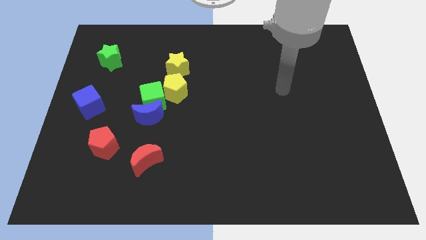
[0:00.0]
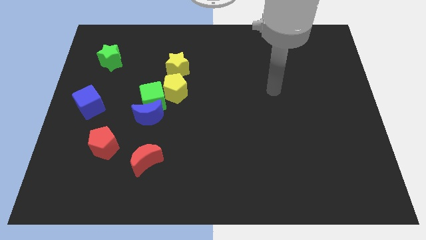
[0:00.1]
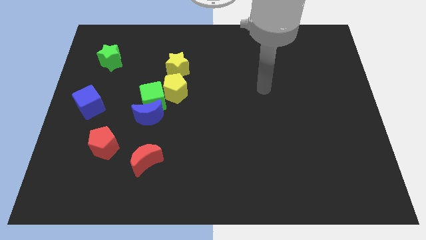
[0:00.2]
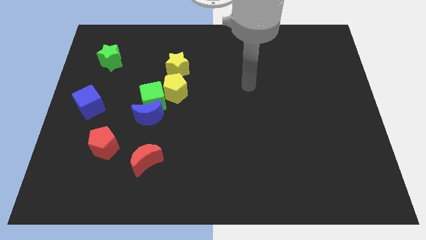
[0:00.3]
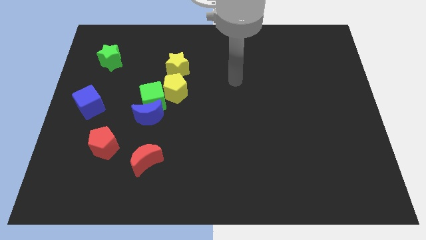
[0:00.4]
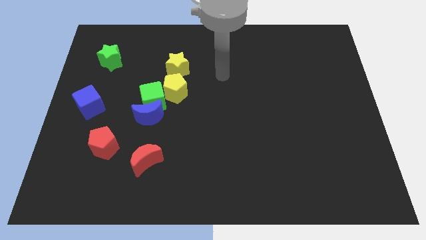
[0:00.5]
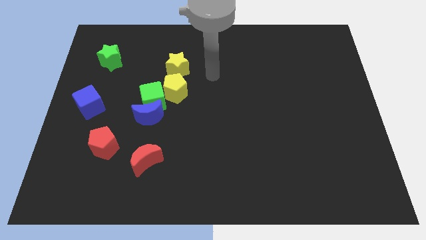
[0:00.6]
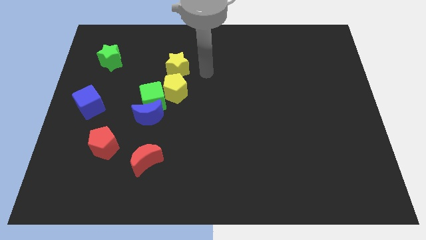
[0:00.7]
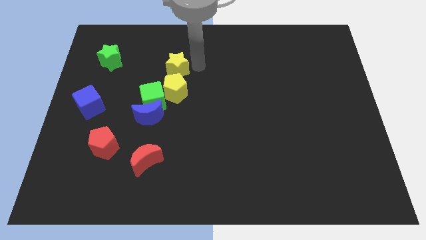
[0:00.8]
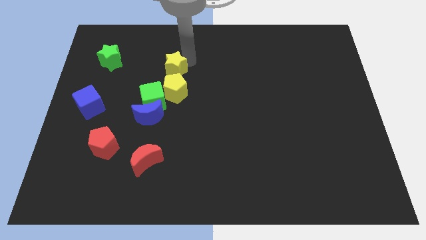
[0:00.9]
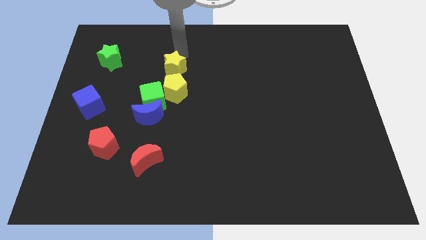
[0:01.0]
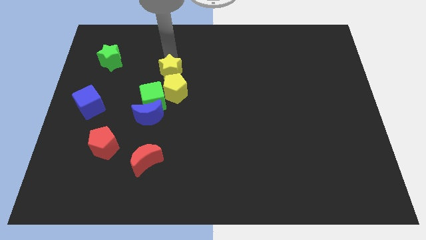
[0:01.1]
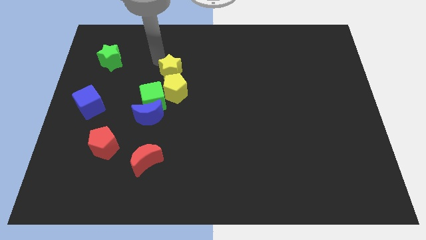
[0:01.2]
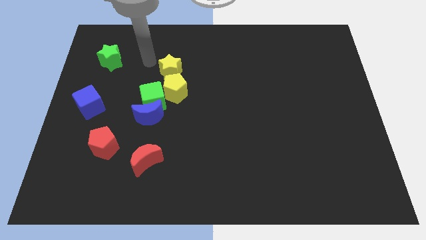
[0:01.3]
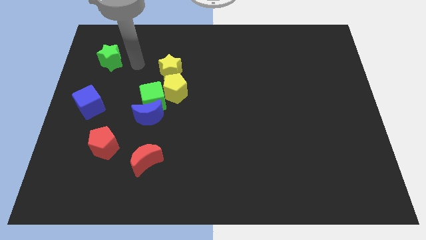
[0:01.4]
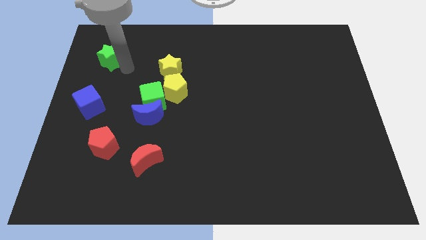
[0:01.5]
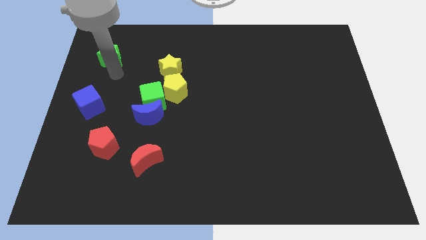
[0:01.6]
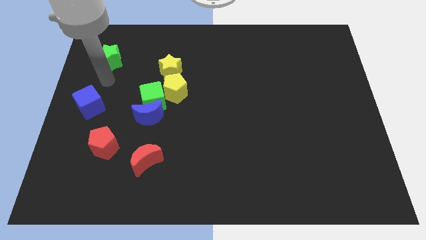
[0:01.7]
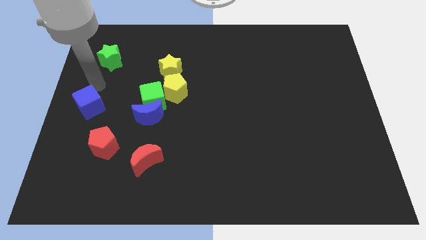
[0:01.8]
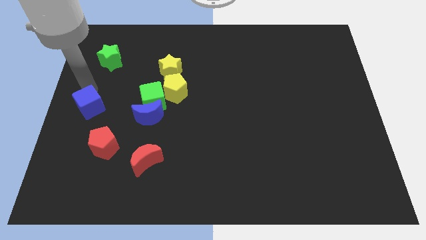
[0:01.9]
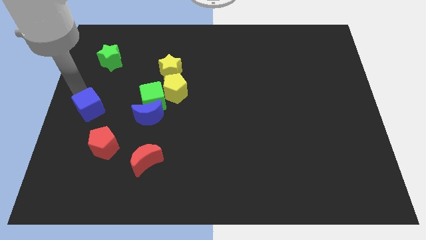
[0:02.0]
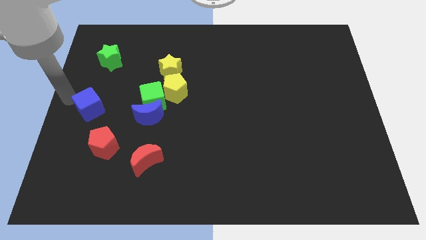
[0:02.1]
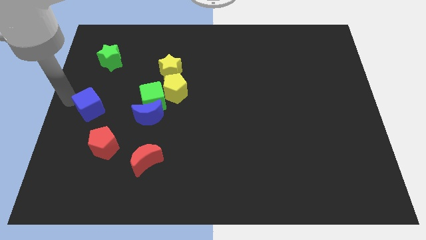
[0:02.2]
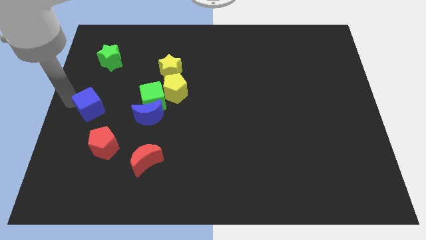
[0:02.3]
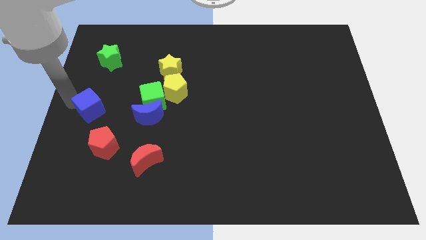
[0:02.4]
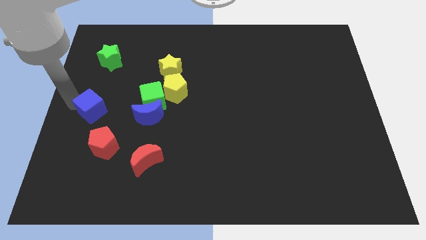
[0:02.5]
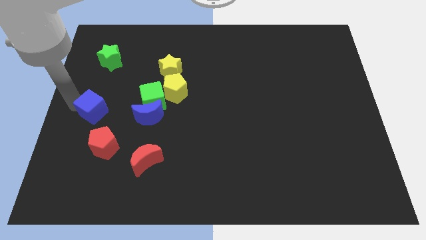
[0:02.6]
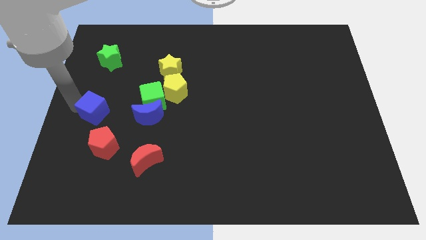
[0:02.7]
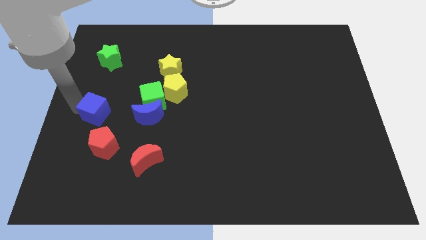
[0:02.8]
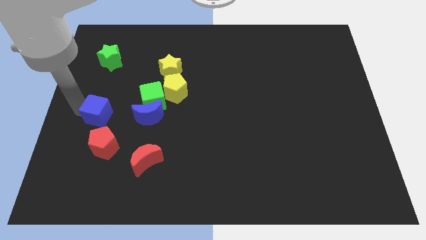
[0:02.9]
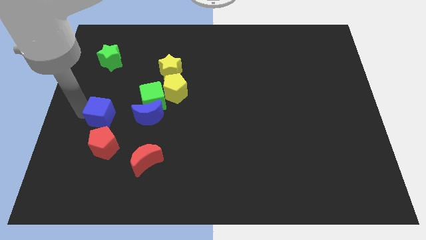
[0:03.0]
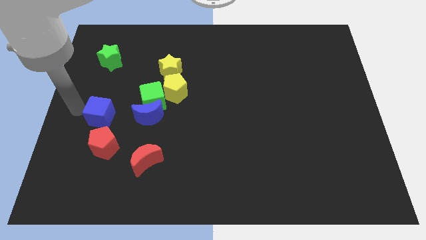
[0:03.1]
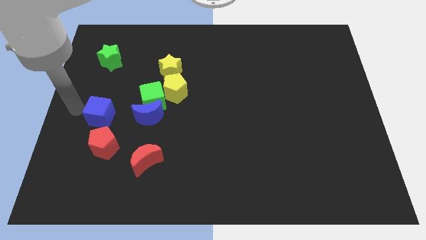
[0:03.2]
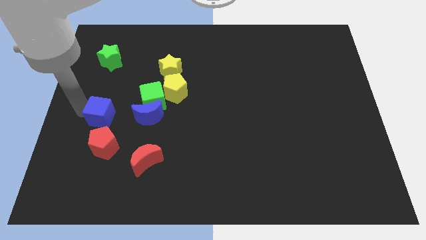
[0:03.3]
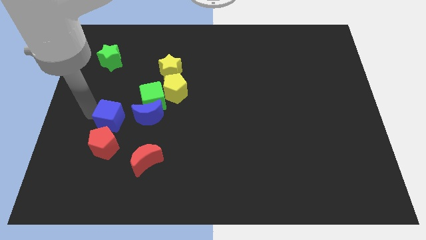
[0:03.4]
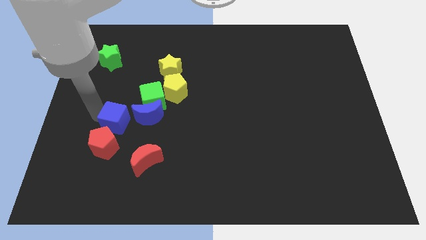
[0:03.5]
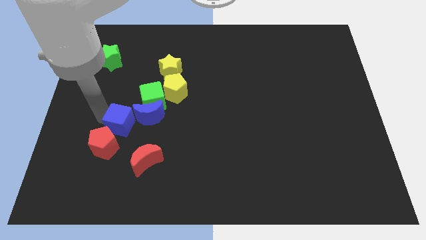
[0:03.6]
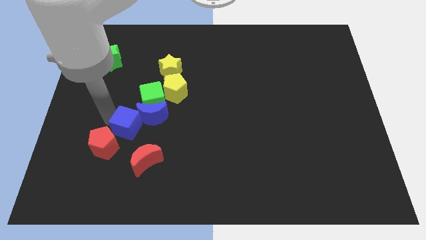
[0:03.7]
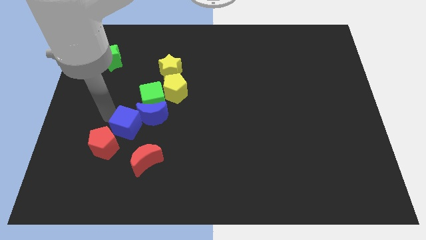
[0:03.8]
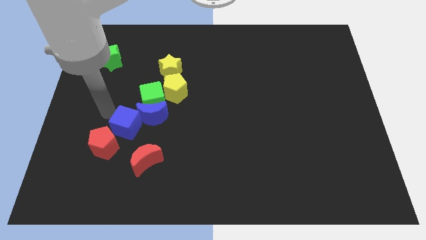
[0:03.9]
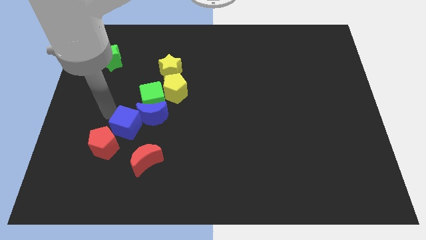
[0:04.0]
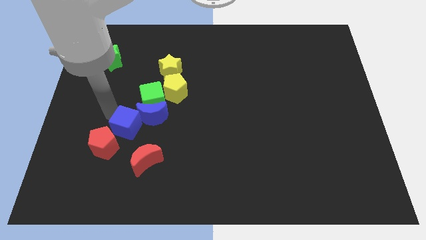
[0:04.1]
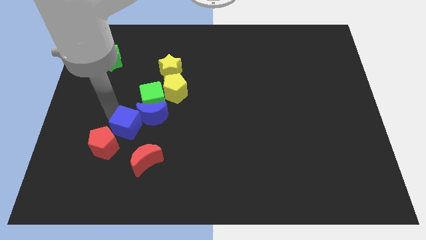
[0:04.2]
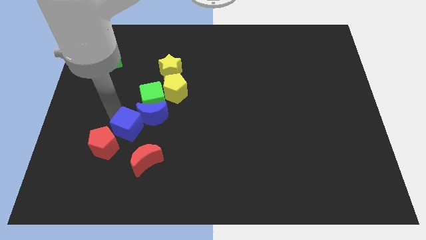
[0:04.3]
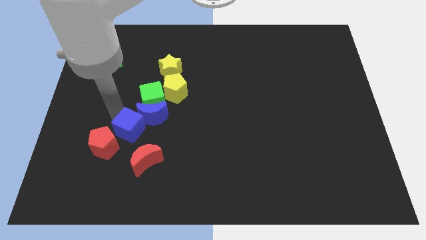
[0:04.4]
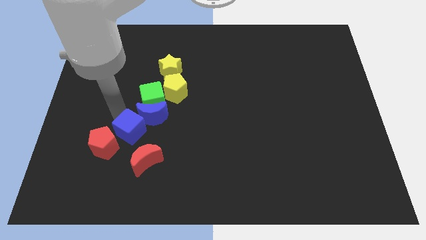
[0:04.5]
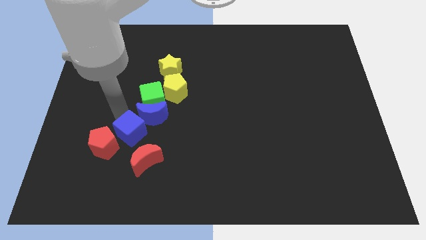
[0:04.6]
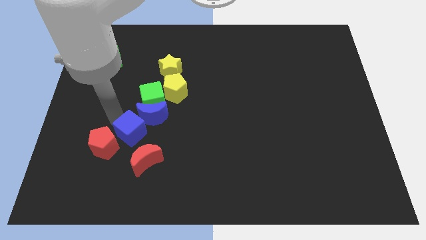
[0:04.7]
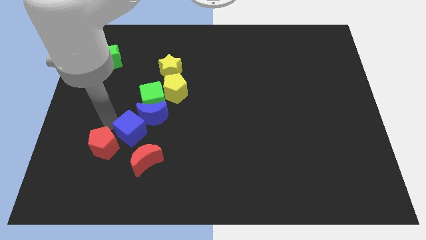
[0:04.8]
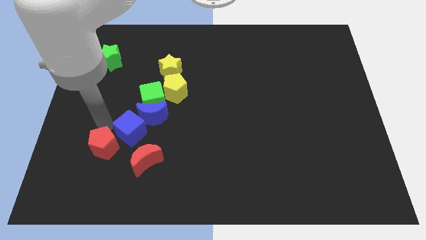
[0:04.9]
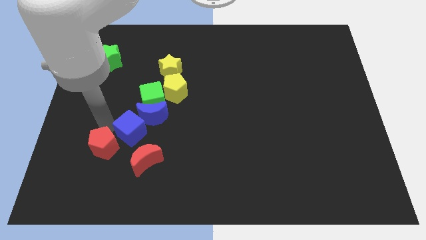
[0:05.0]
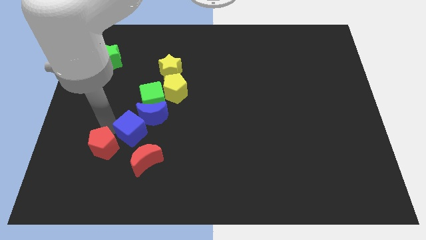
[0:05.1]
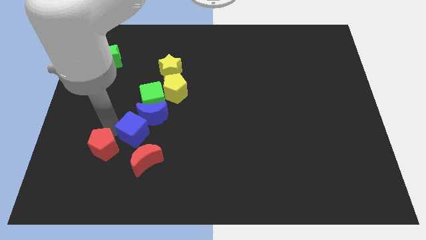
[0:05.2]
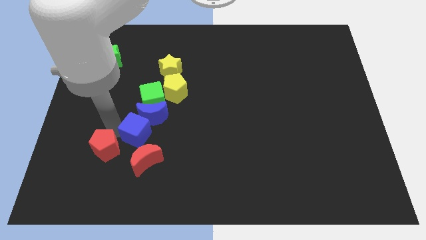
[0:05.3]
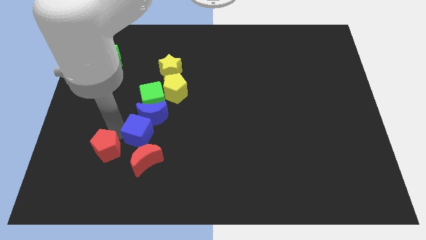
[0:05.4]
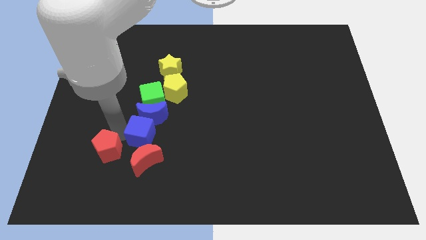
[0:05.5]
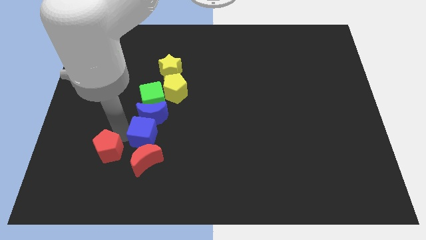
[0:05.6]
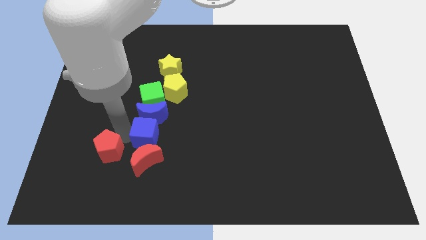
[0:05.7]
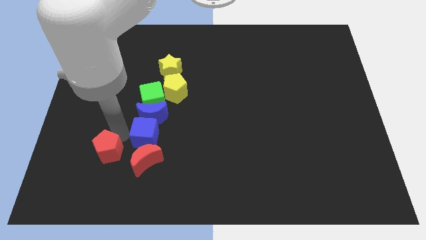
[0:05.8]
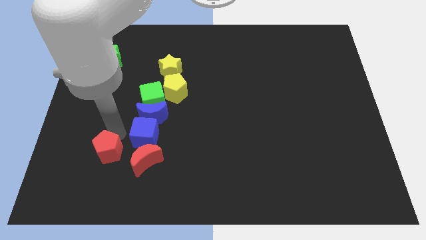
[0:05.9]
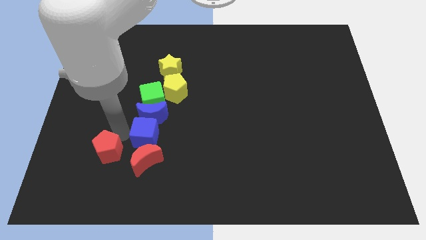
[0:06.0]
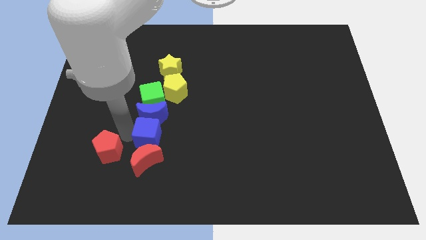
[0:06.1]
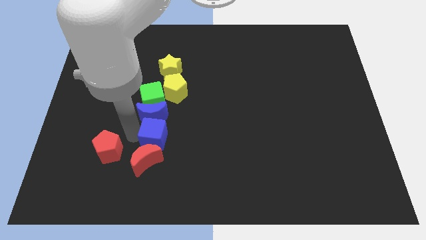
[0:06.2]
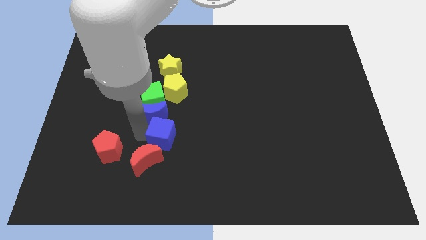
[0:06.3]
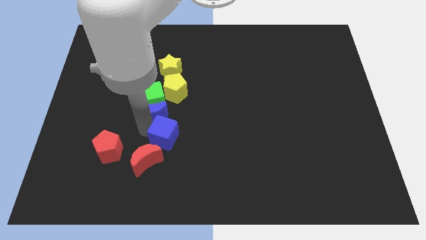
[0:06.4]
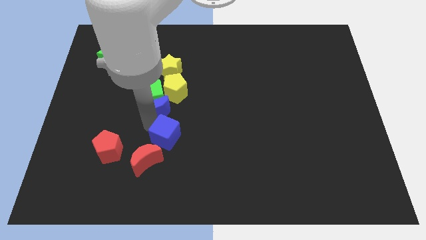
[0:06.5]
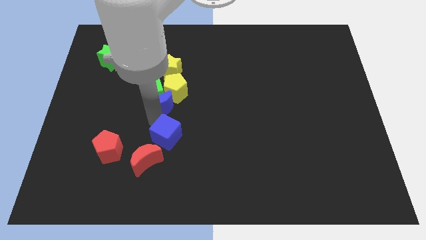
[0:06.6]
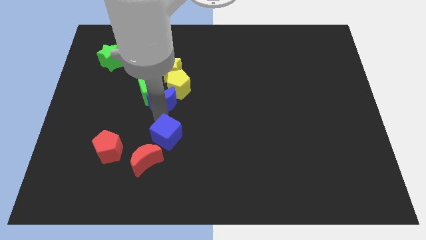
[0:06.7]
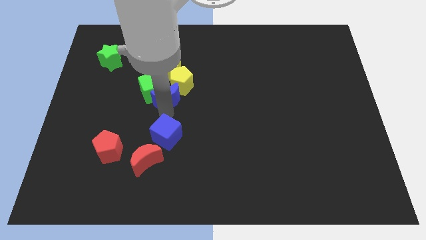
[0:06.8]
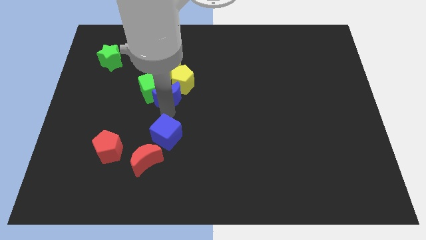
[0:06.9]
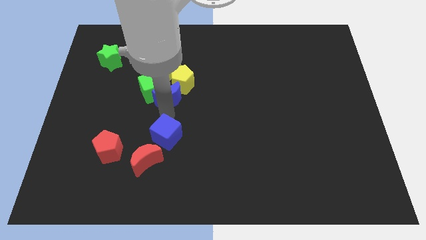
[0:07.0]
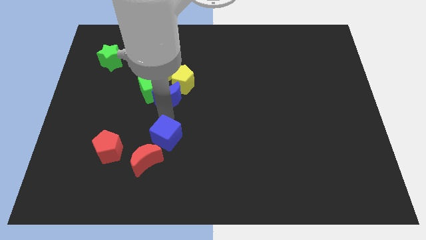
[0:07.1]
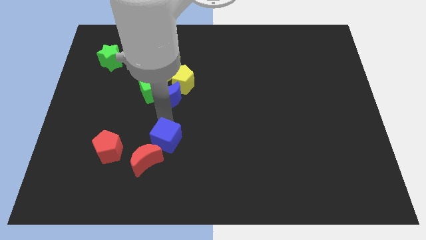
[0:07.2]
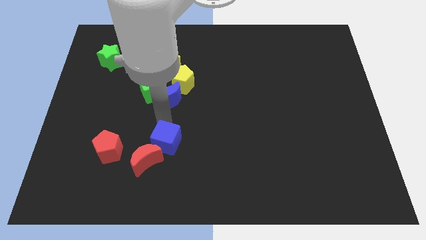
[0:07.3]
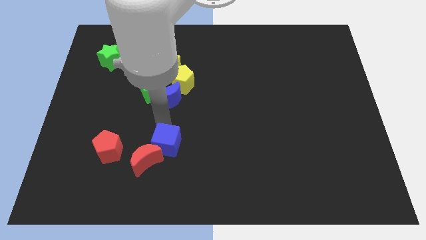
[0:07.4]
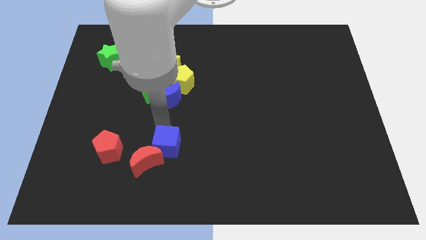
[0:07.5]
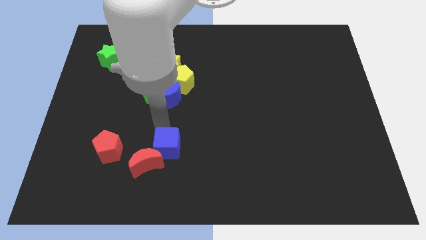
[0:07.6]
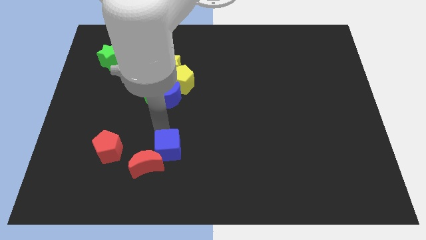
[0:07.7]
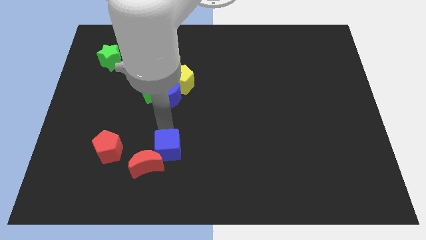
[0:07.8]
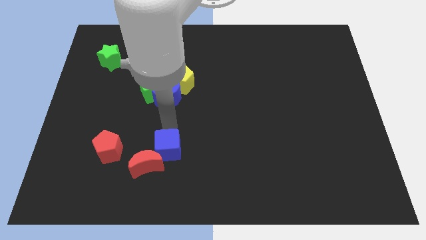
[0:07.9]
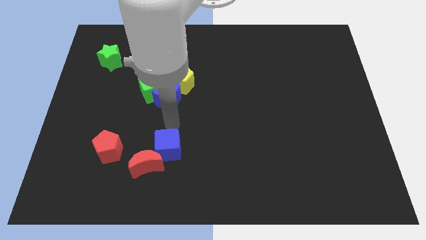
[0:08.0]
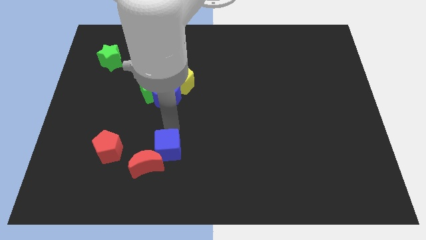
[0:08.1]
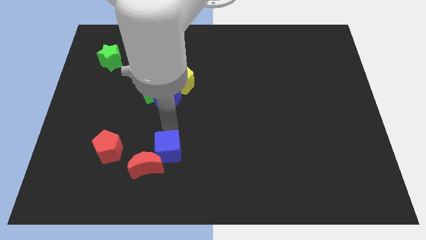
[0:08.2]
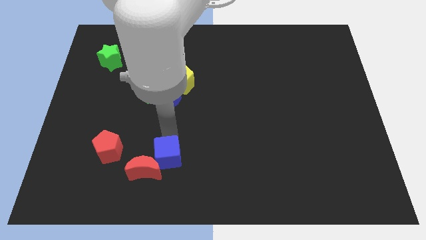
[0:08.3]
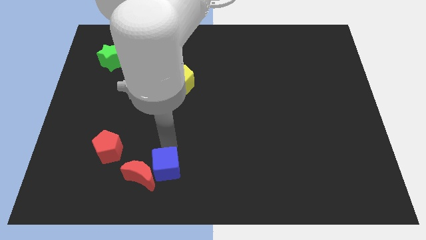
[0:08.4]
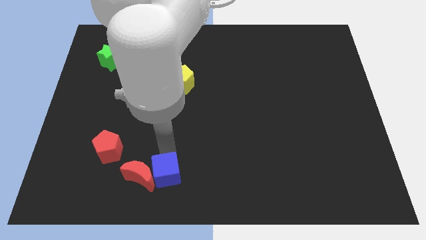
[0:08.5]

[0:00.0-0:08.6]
push the blue cube diagonally down and to the right of the red moon
